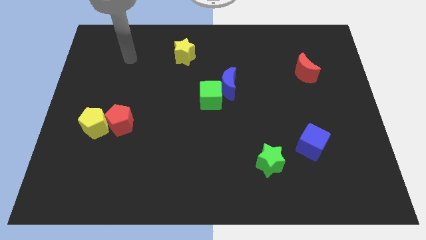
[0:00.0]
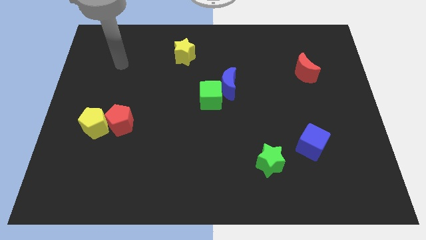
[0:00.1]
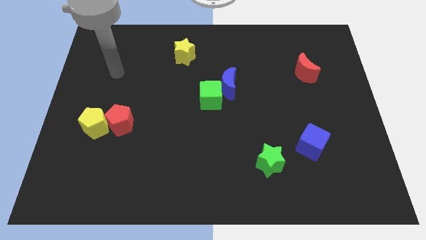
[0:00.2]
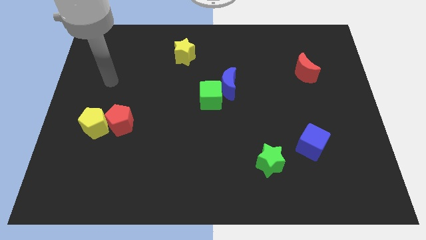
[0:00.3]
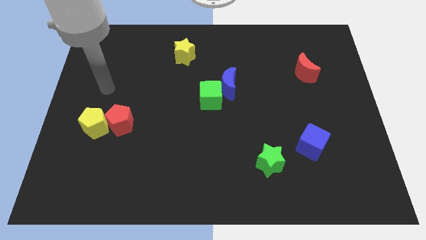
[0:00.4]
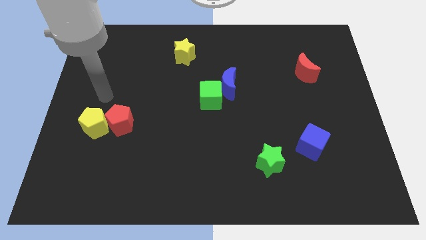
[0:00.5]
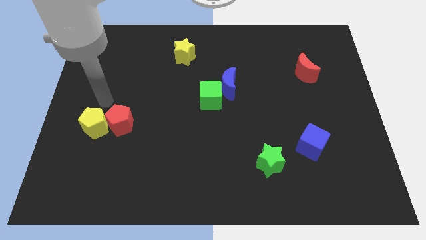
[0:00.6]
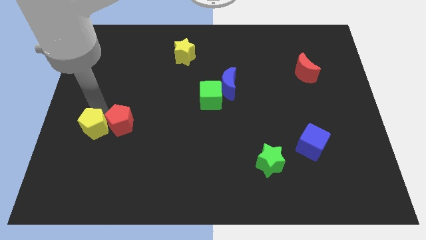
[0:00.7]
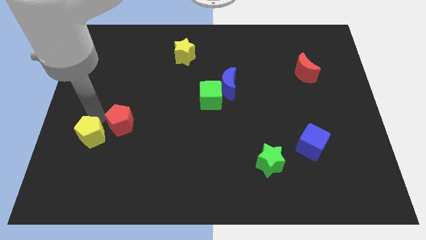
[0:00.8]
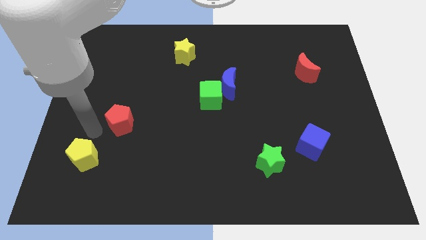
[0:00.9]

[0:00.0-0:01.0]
pull the red pentagon apart from the yellow pentagon

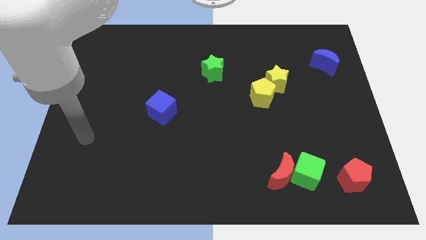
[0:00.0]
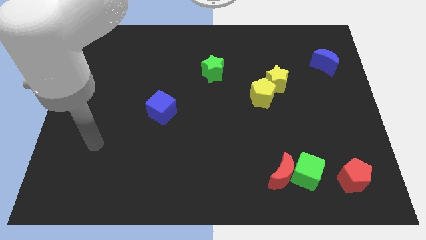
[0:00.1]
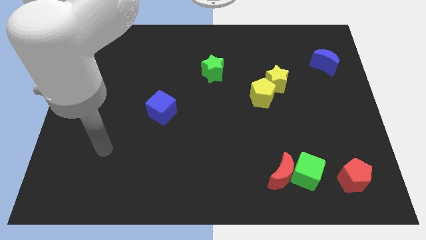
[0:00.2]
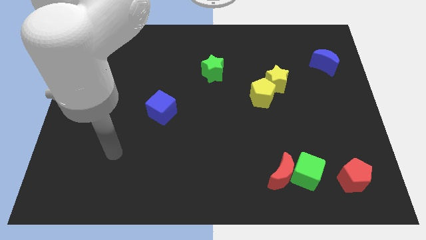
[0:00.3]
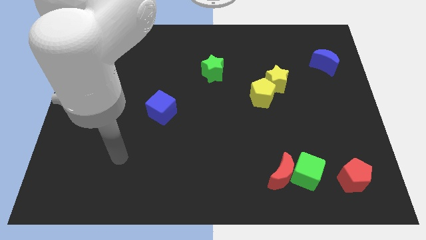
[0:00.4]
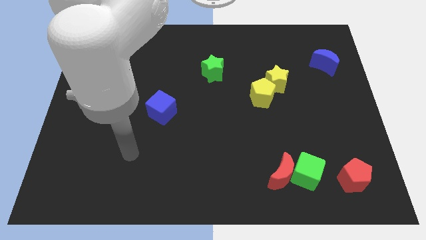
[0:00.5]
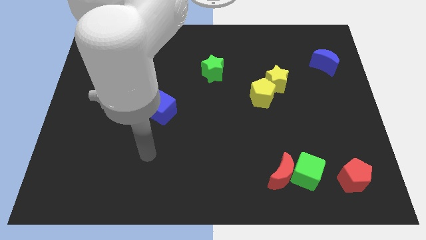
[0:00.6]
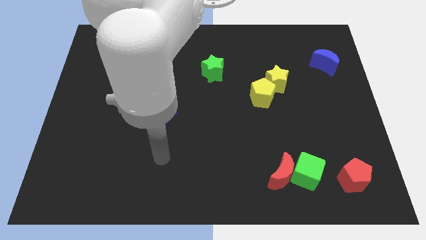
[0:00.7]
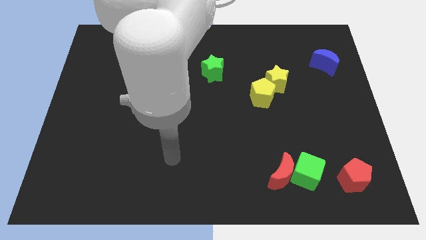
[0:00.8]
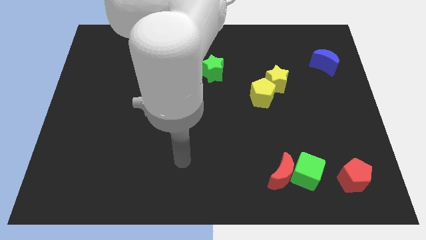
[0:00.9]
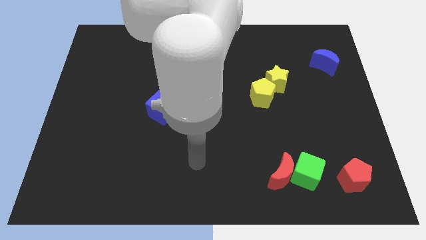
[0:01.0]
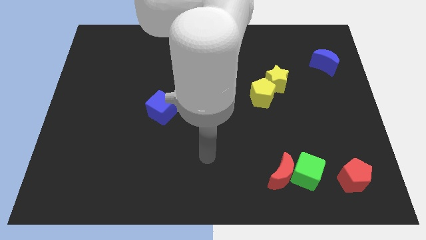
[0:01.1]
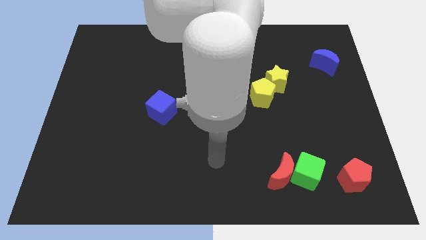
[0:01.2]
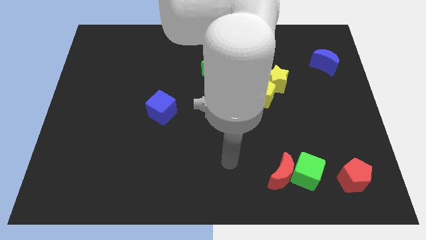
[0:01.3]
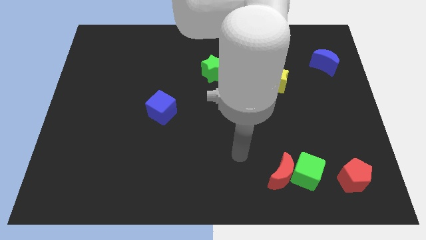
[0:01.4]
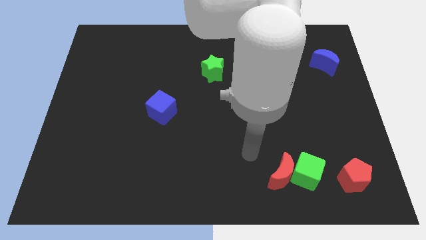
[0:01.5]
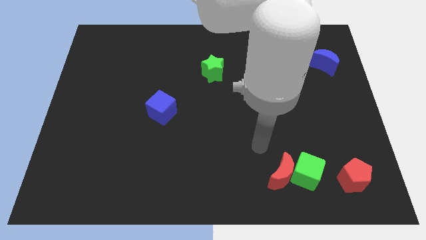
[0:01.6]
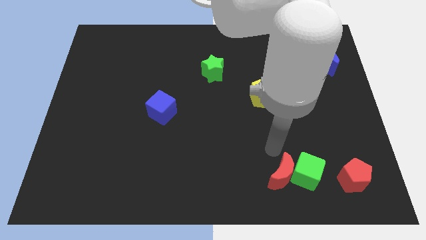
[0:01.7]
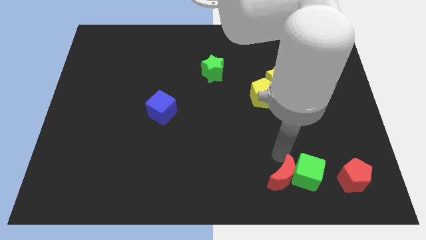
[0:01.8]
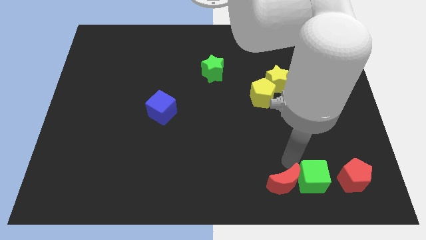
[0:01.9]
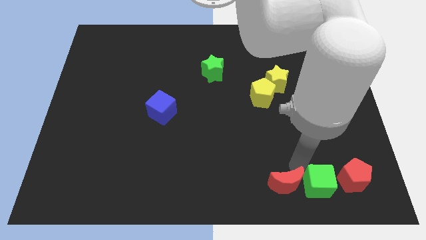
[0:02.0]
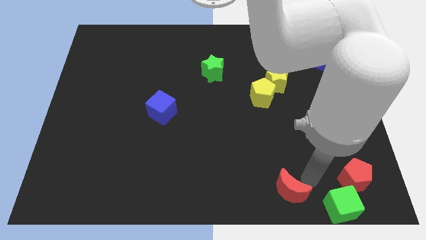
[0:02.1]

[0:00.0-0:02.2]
move the red moon away from the green cube

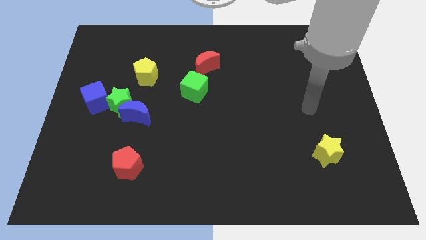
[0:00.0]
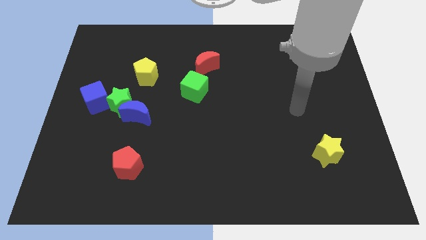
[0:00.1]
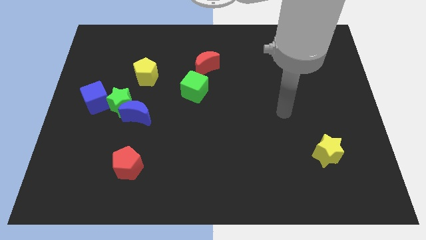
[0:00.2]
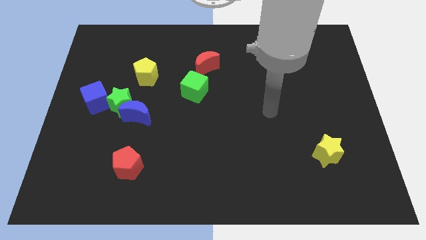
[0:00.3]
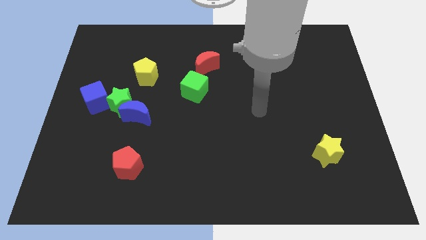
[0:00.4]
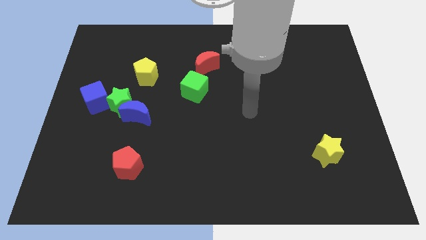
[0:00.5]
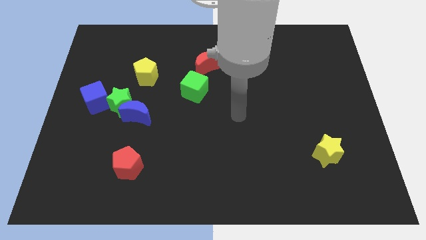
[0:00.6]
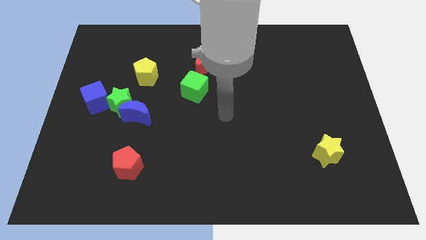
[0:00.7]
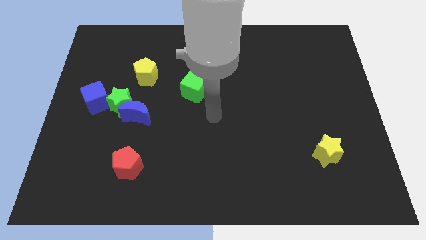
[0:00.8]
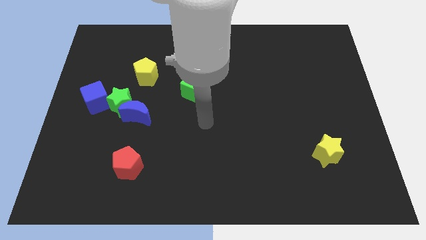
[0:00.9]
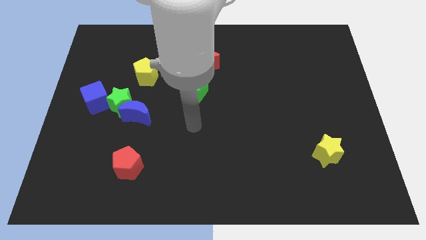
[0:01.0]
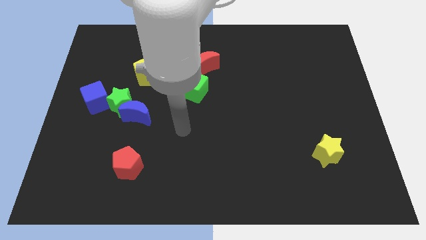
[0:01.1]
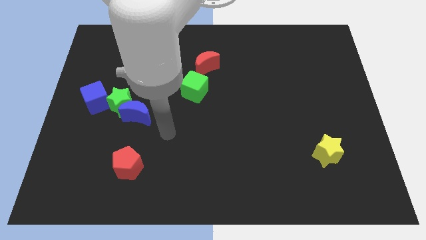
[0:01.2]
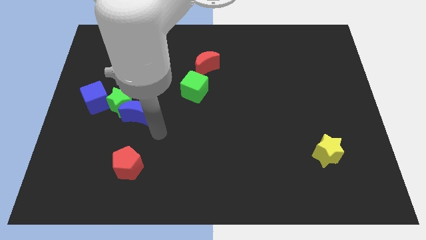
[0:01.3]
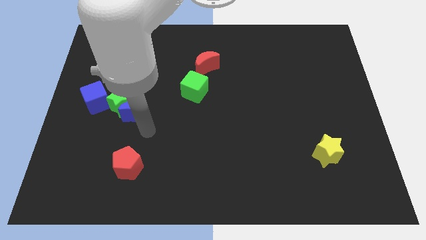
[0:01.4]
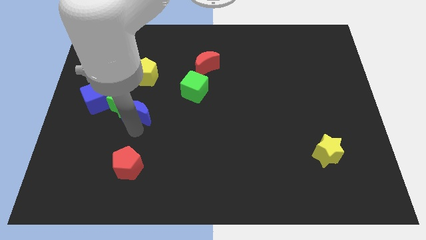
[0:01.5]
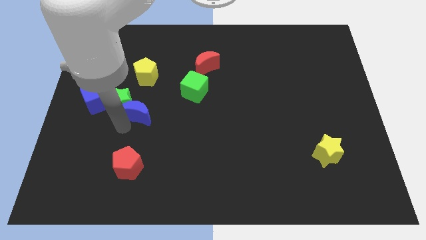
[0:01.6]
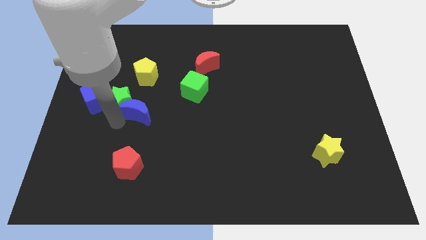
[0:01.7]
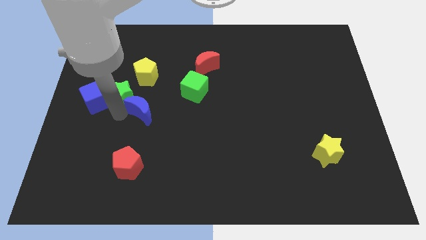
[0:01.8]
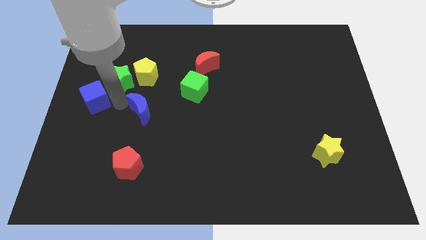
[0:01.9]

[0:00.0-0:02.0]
separate the blue moon from the green star

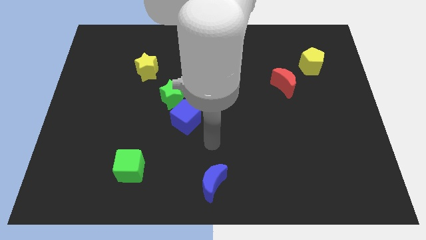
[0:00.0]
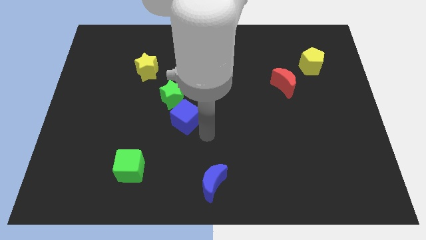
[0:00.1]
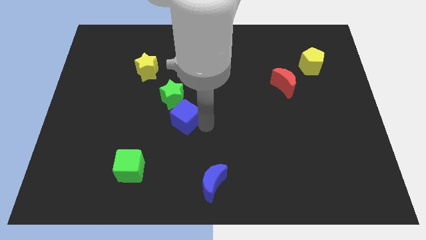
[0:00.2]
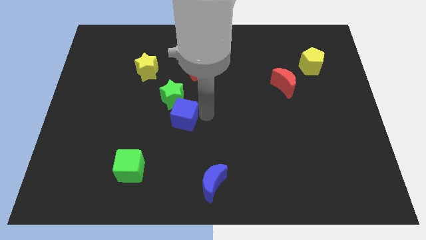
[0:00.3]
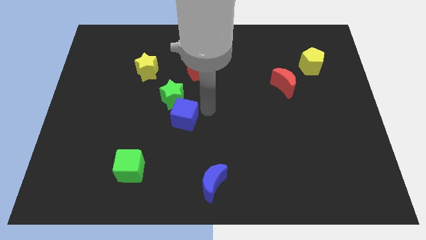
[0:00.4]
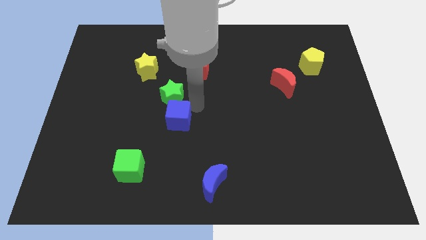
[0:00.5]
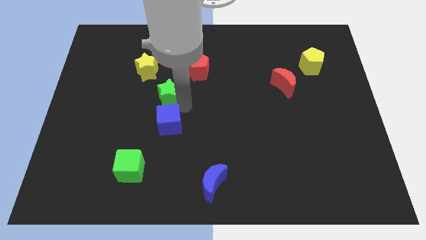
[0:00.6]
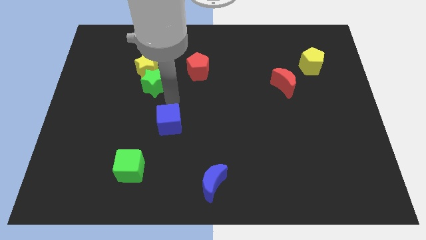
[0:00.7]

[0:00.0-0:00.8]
move the blue cube away from the green star

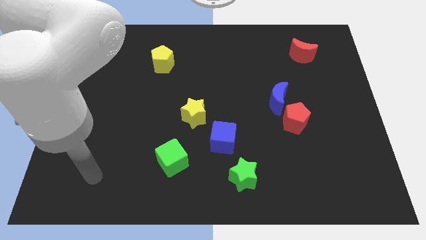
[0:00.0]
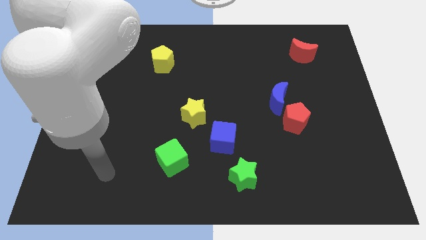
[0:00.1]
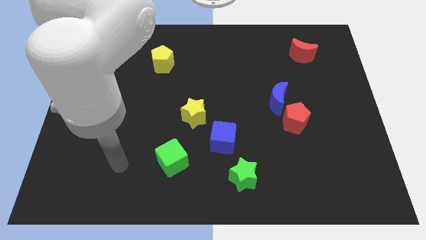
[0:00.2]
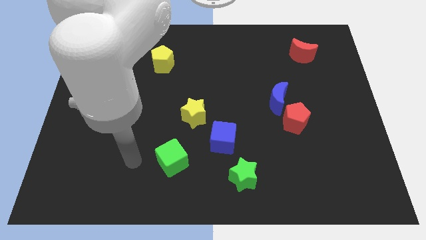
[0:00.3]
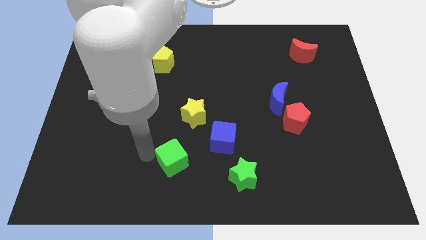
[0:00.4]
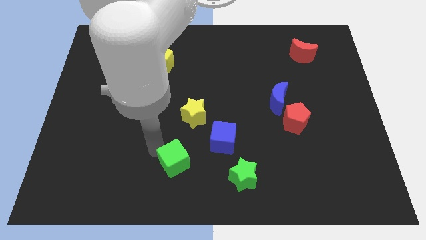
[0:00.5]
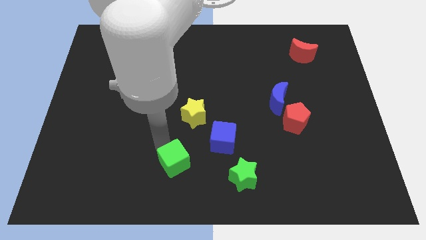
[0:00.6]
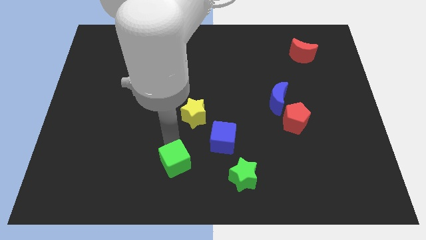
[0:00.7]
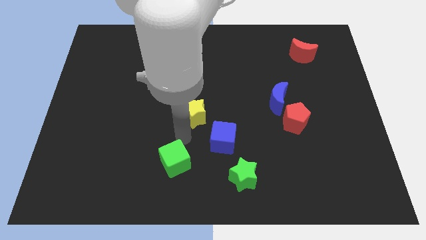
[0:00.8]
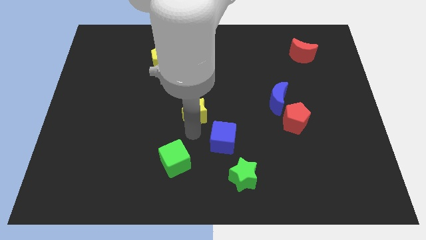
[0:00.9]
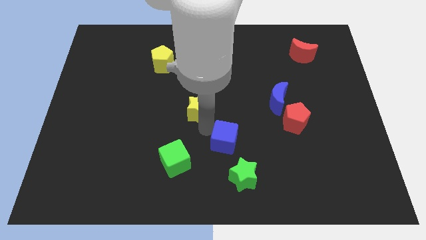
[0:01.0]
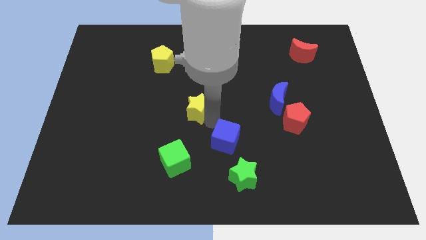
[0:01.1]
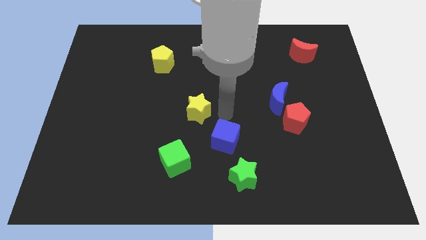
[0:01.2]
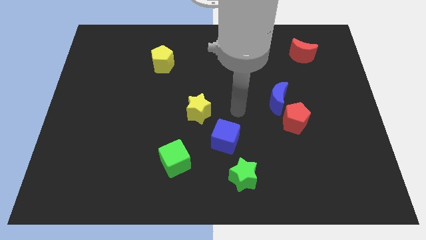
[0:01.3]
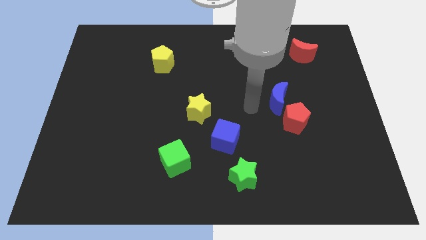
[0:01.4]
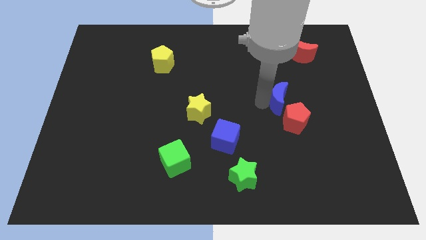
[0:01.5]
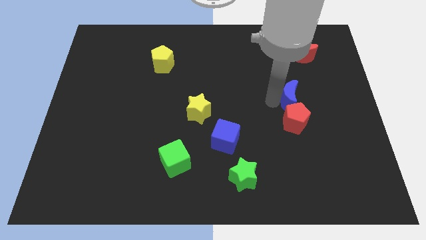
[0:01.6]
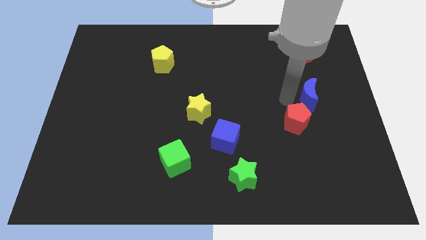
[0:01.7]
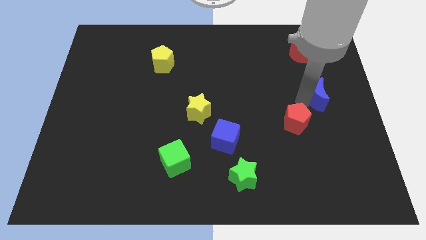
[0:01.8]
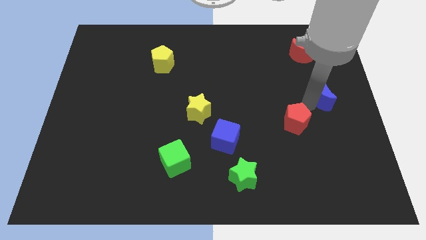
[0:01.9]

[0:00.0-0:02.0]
move the red pentagon away from the blue moon

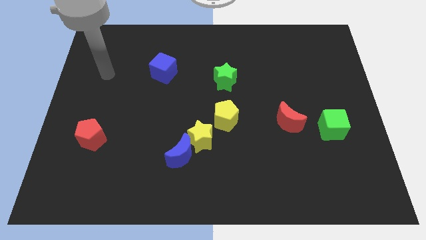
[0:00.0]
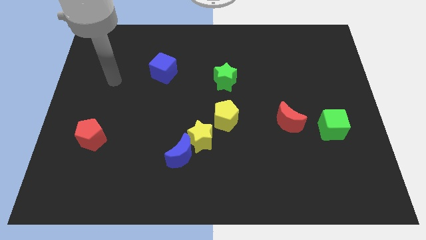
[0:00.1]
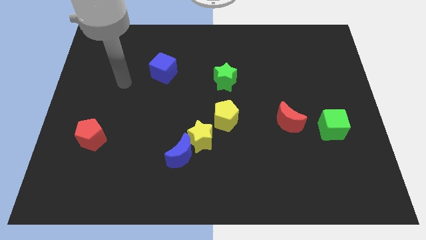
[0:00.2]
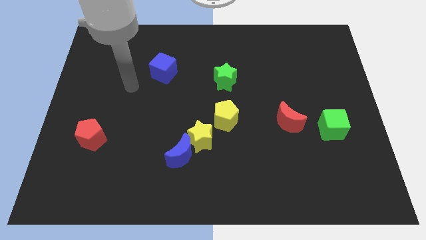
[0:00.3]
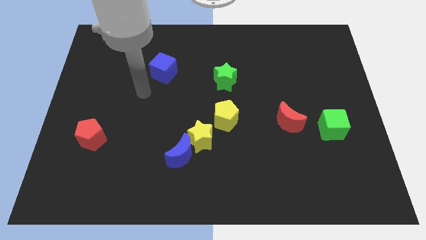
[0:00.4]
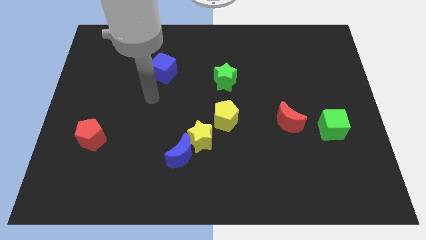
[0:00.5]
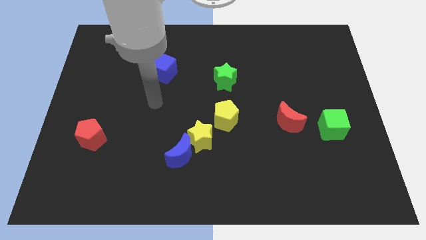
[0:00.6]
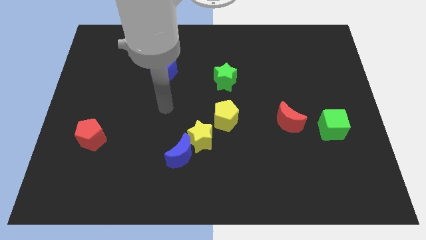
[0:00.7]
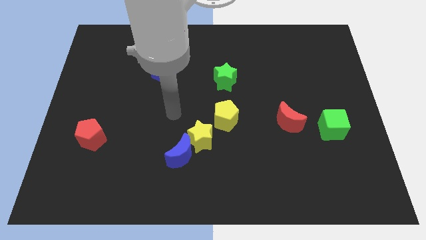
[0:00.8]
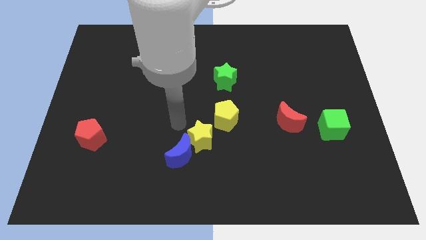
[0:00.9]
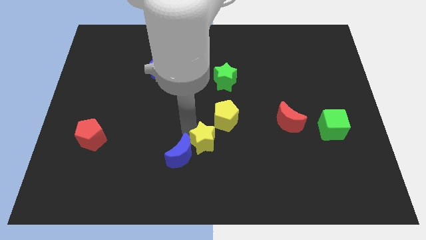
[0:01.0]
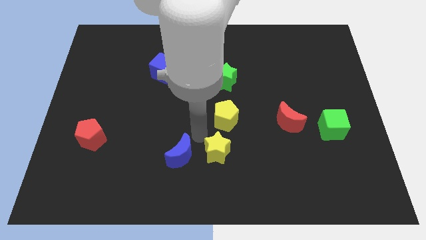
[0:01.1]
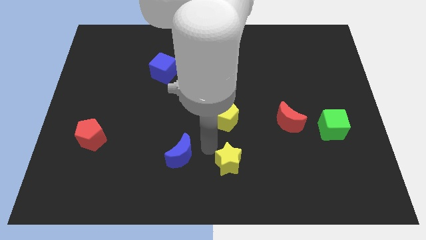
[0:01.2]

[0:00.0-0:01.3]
pull the blue moon apart from the yellow star
